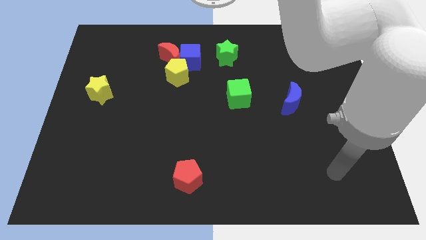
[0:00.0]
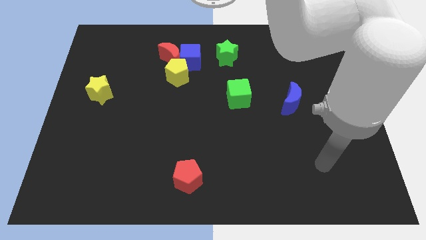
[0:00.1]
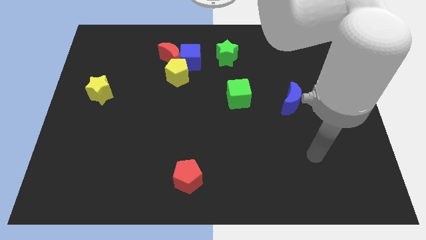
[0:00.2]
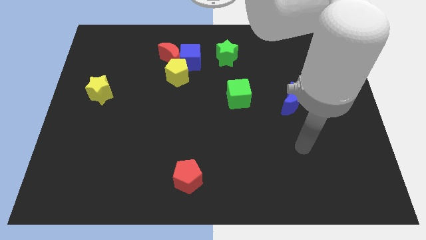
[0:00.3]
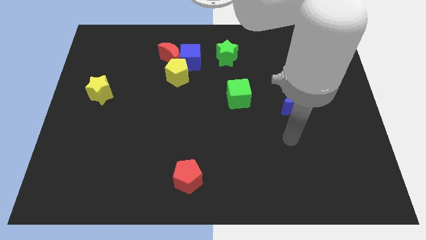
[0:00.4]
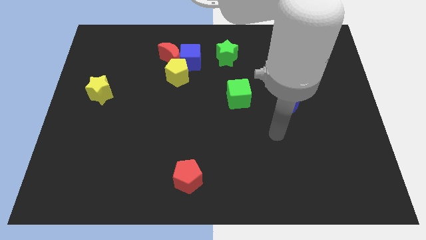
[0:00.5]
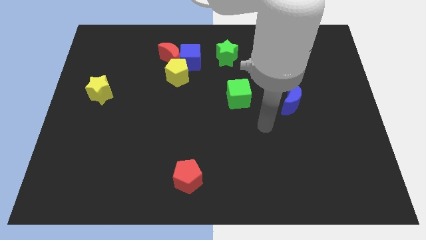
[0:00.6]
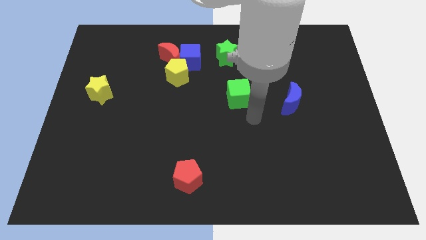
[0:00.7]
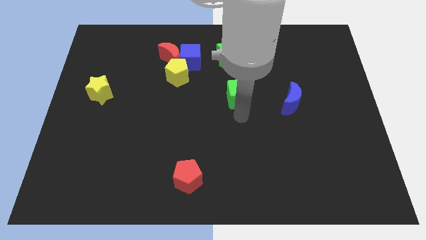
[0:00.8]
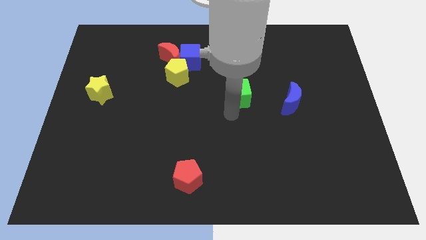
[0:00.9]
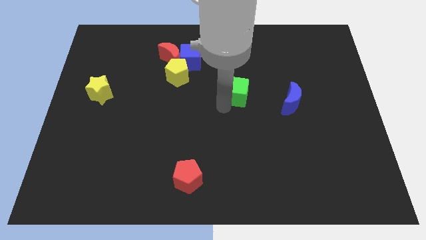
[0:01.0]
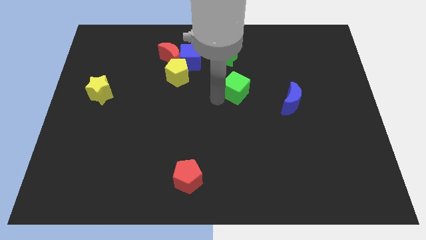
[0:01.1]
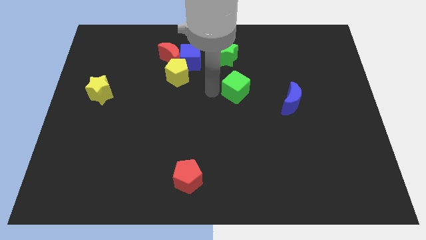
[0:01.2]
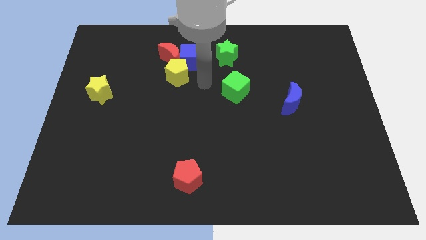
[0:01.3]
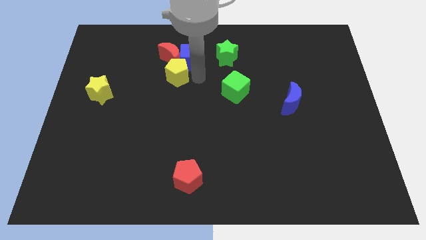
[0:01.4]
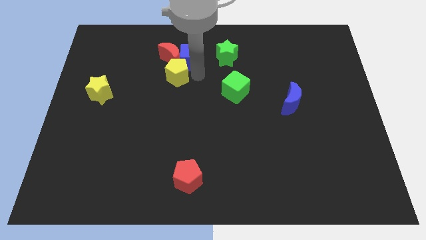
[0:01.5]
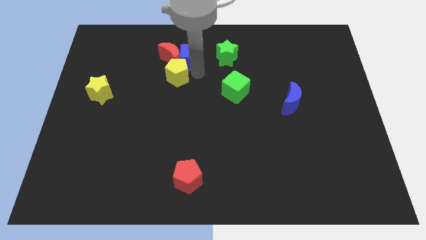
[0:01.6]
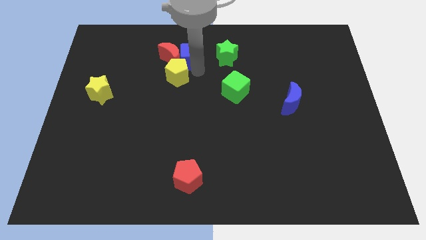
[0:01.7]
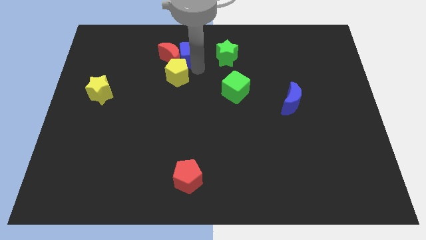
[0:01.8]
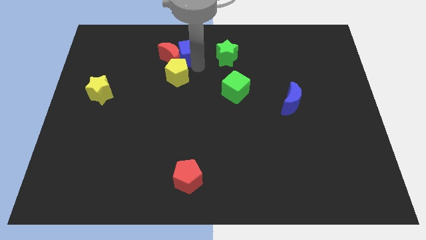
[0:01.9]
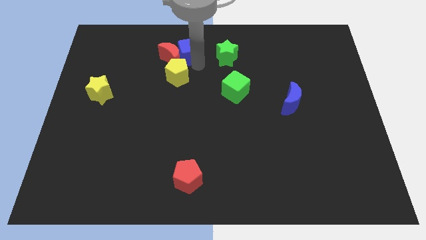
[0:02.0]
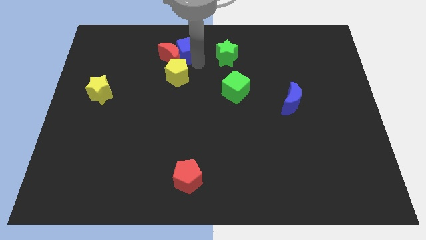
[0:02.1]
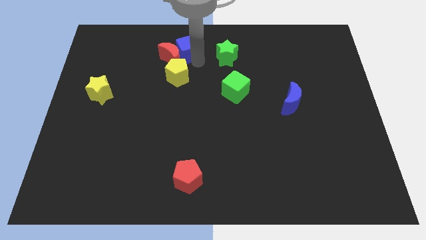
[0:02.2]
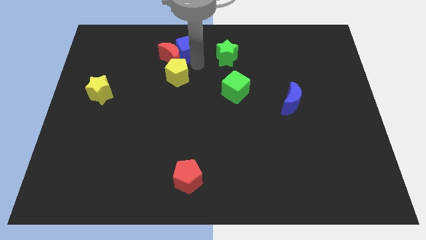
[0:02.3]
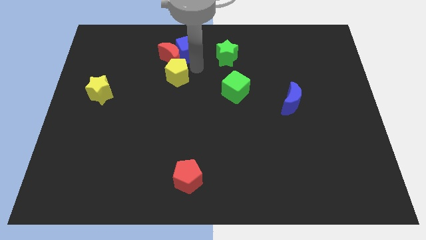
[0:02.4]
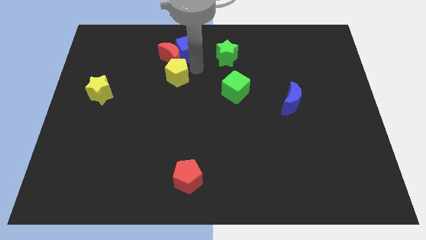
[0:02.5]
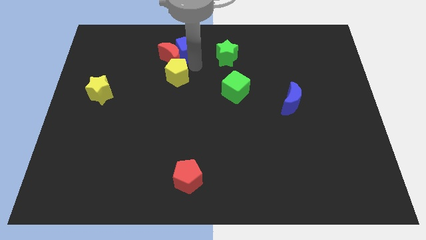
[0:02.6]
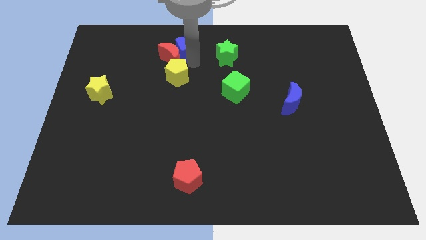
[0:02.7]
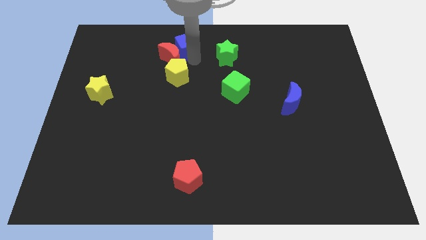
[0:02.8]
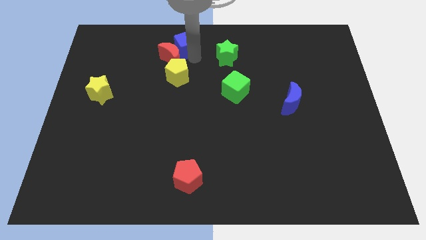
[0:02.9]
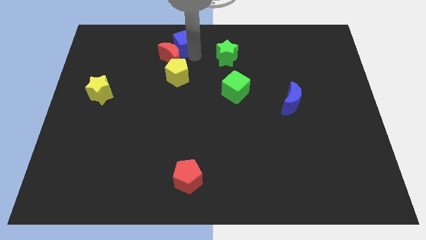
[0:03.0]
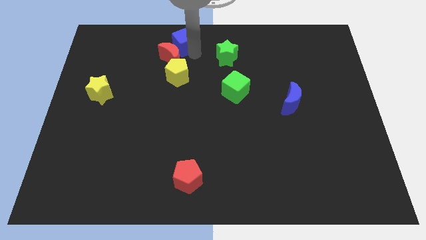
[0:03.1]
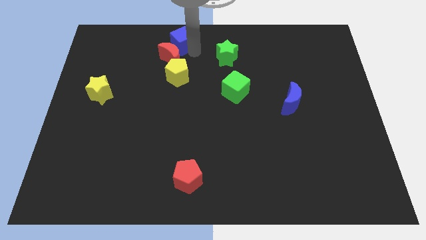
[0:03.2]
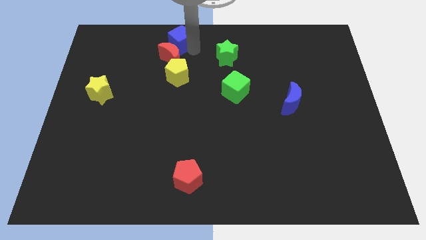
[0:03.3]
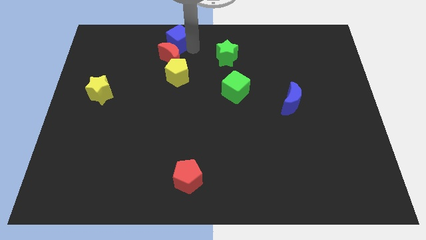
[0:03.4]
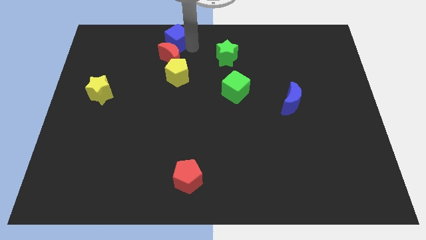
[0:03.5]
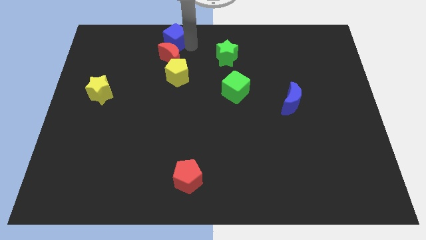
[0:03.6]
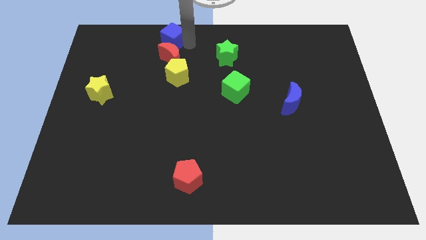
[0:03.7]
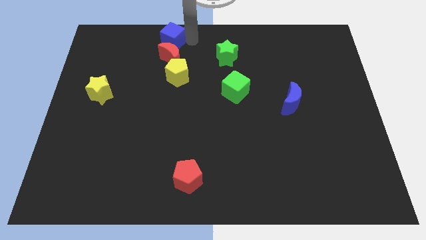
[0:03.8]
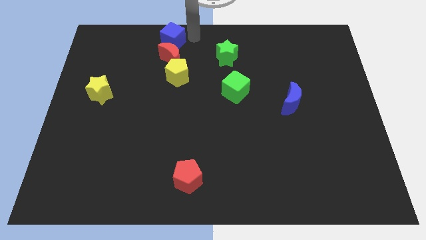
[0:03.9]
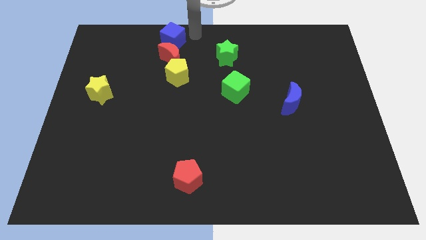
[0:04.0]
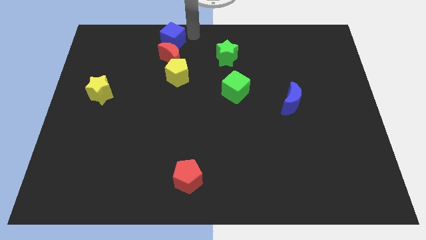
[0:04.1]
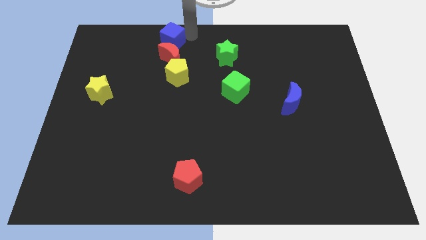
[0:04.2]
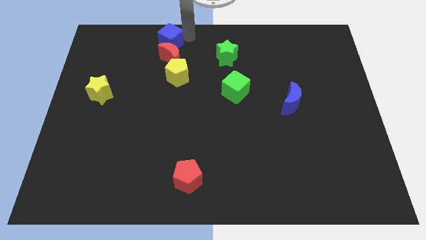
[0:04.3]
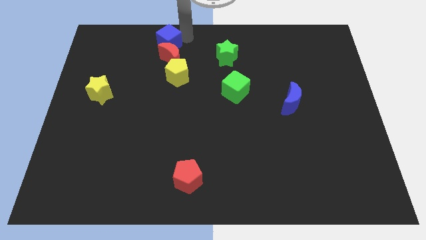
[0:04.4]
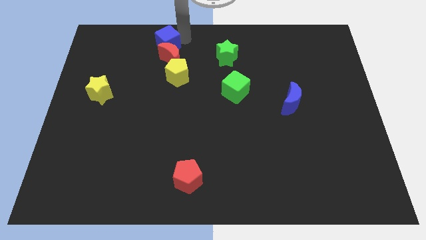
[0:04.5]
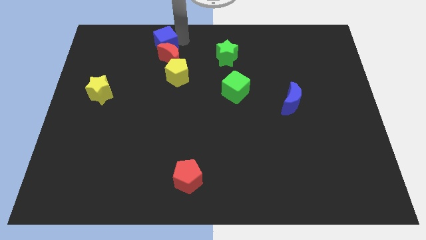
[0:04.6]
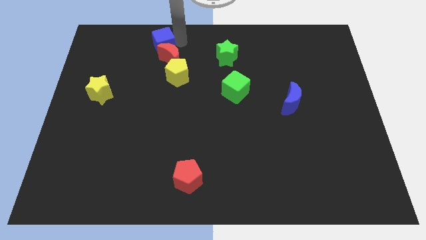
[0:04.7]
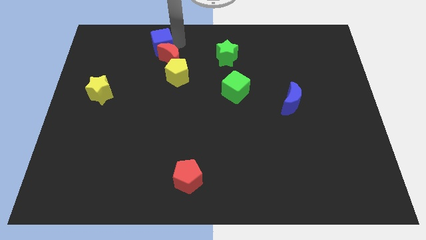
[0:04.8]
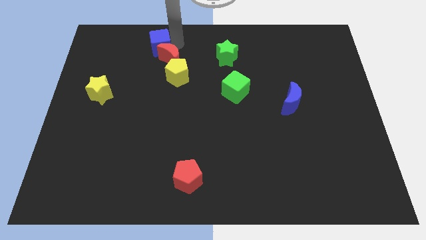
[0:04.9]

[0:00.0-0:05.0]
slightly slide the blue cube to the left

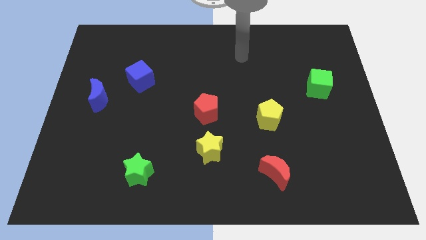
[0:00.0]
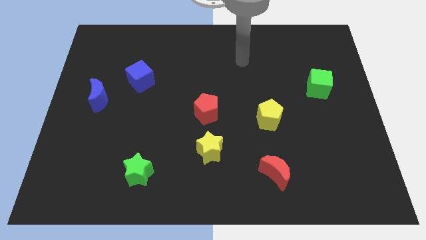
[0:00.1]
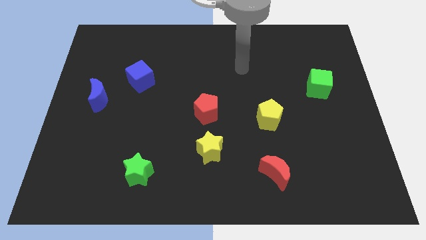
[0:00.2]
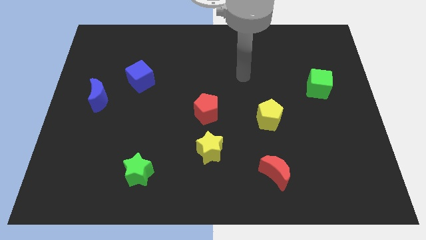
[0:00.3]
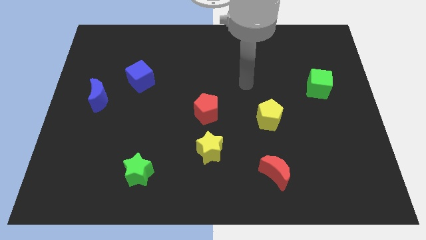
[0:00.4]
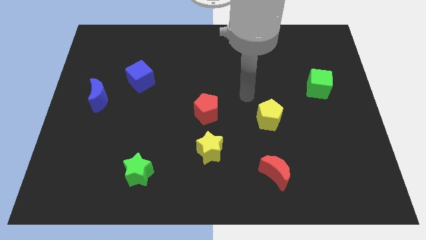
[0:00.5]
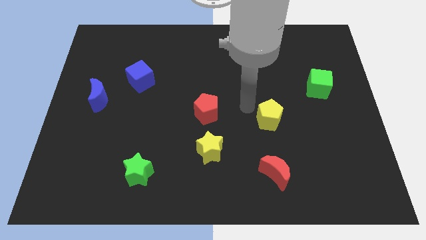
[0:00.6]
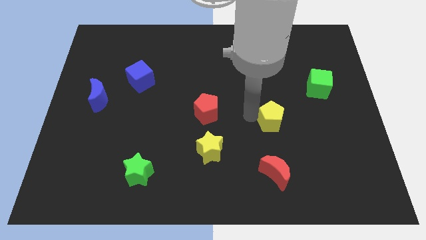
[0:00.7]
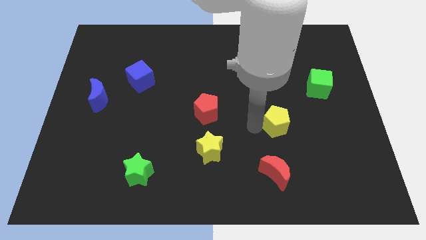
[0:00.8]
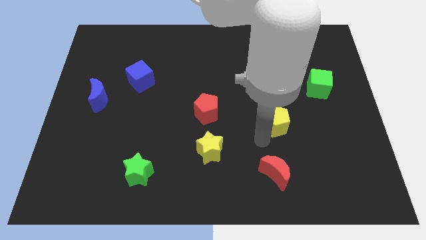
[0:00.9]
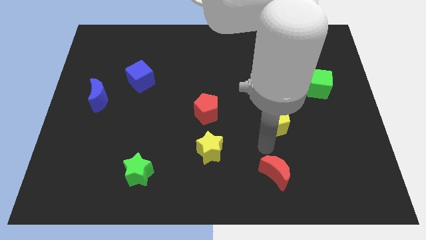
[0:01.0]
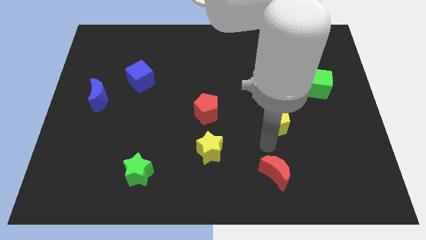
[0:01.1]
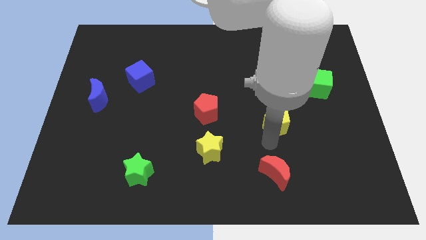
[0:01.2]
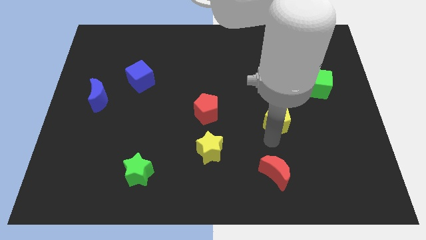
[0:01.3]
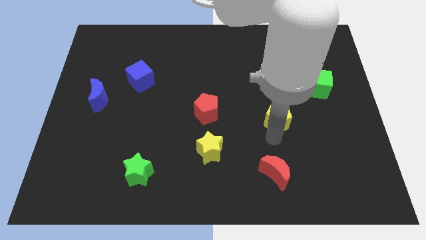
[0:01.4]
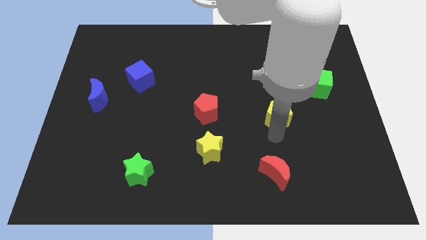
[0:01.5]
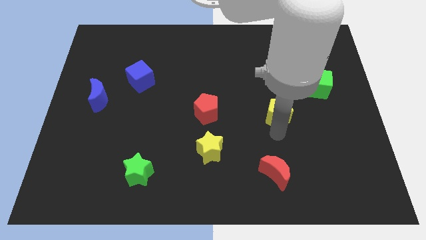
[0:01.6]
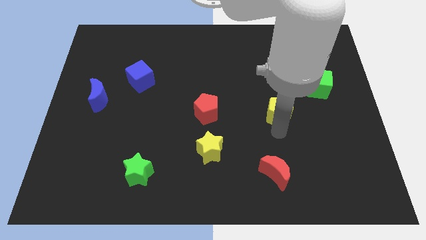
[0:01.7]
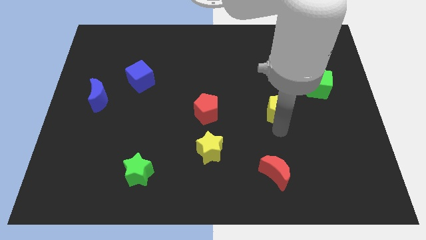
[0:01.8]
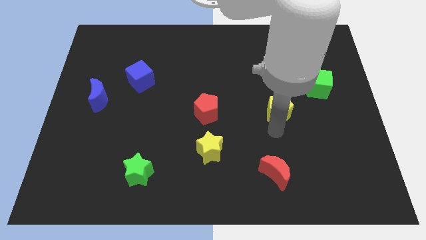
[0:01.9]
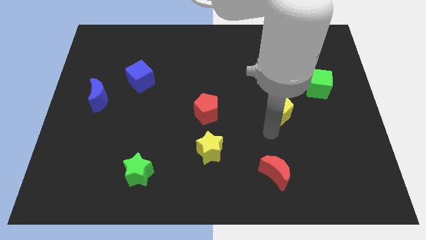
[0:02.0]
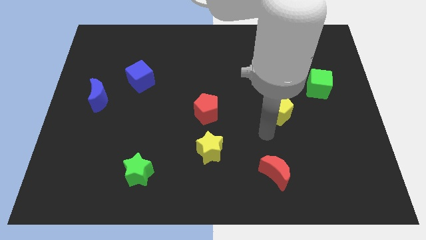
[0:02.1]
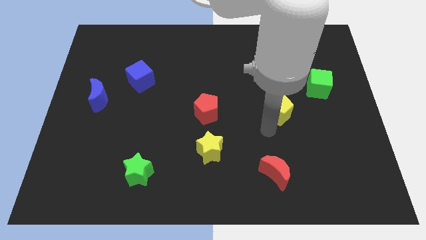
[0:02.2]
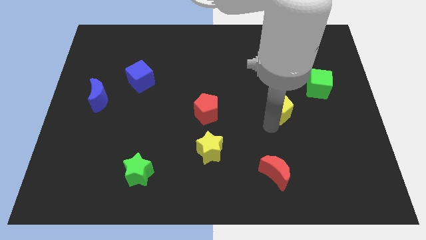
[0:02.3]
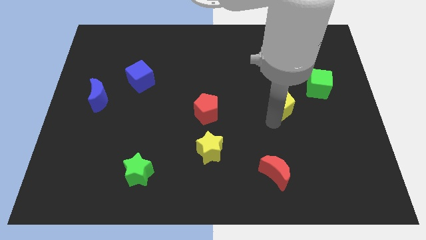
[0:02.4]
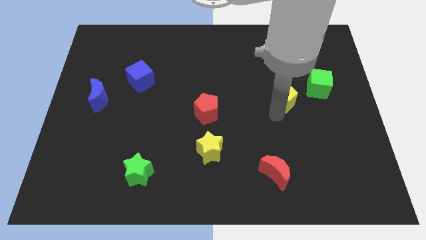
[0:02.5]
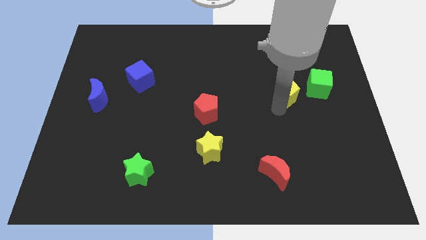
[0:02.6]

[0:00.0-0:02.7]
move the yellow pentagon a little up and right

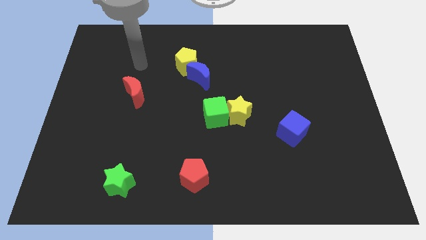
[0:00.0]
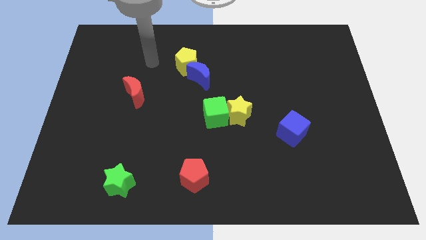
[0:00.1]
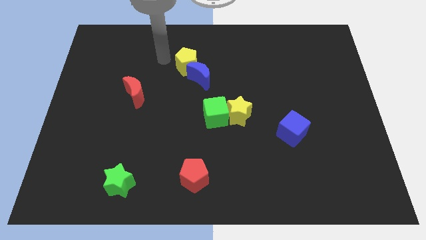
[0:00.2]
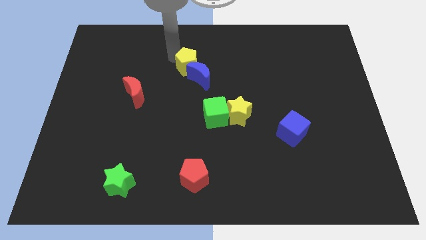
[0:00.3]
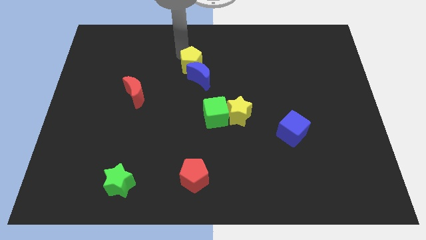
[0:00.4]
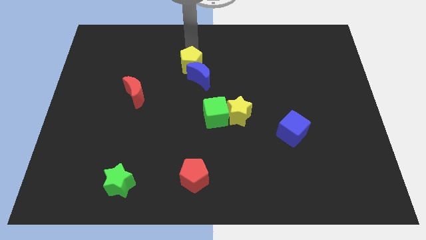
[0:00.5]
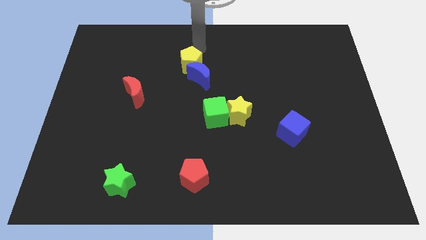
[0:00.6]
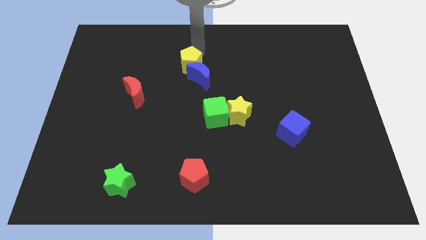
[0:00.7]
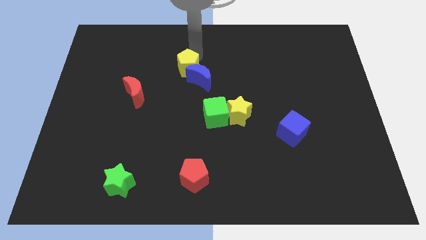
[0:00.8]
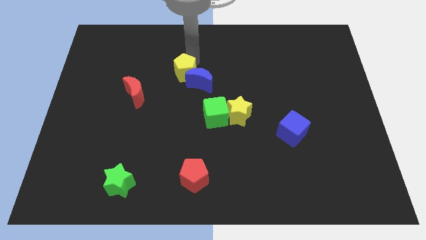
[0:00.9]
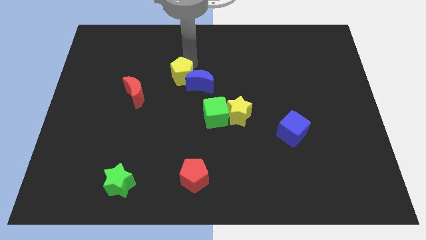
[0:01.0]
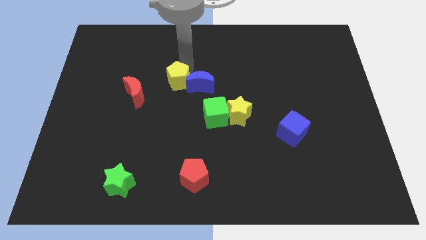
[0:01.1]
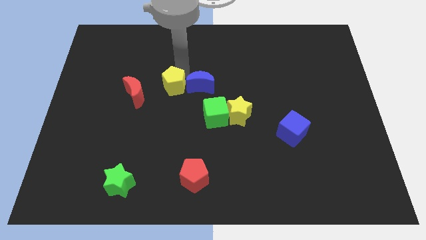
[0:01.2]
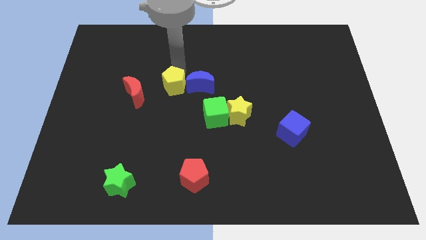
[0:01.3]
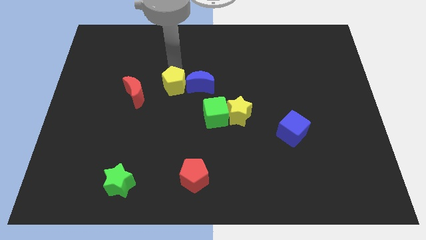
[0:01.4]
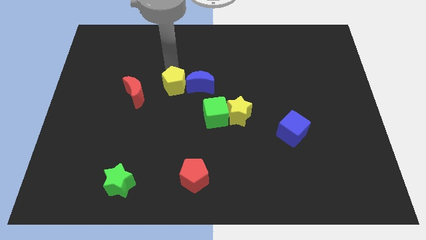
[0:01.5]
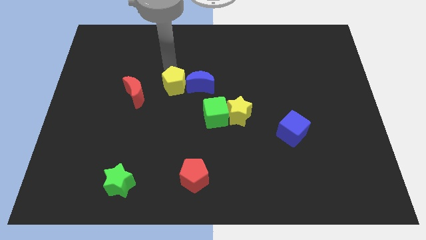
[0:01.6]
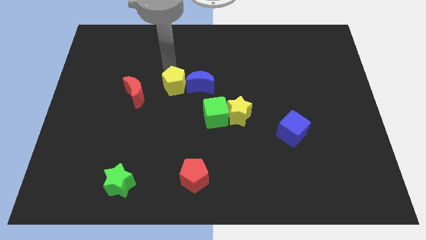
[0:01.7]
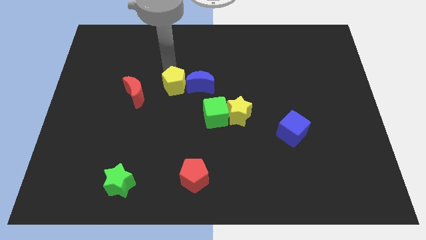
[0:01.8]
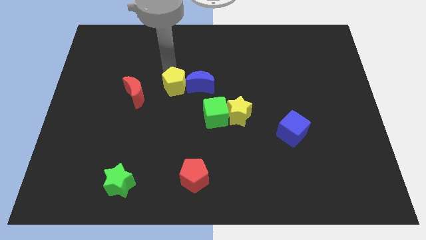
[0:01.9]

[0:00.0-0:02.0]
slide the yellow pentagon a little bit down
